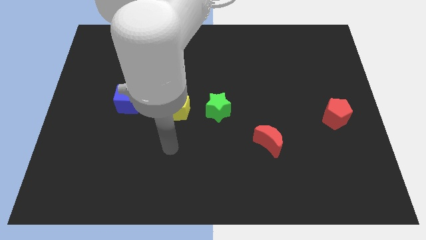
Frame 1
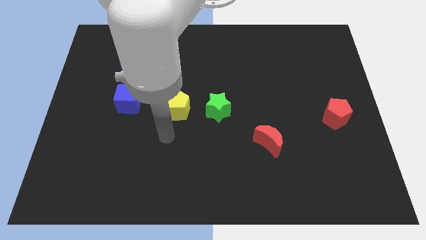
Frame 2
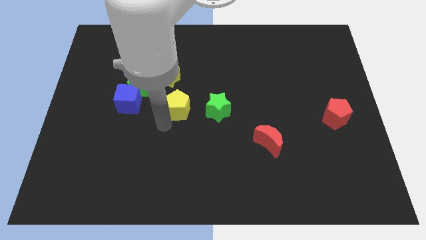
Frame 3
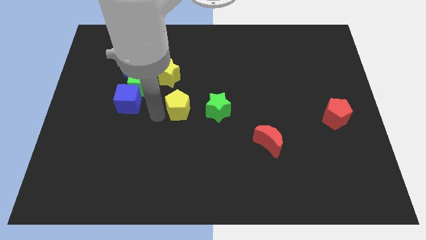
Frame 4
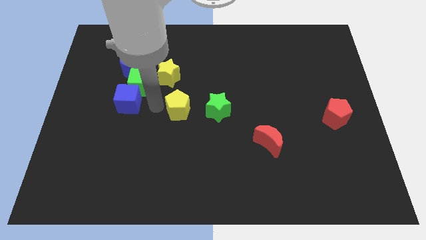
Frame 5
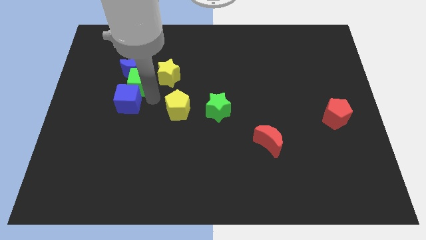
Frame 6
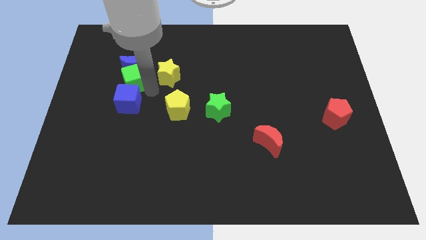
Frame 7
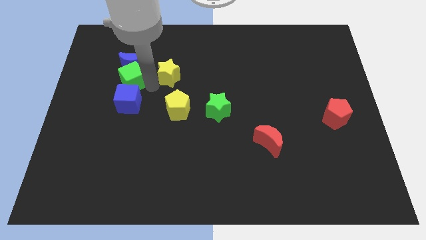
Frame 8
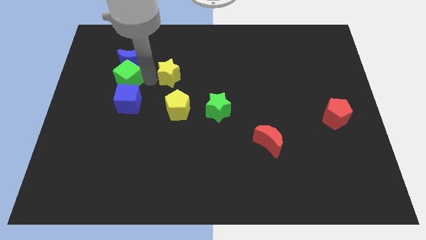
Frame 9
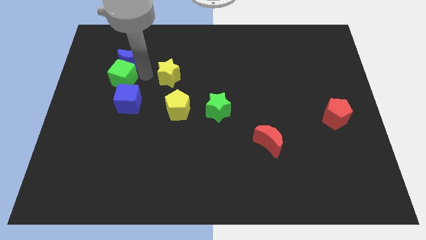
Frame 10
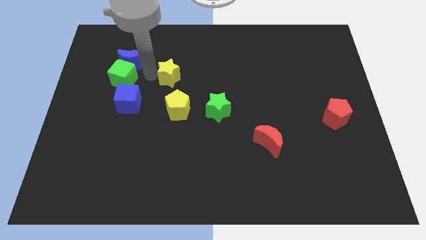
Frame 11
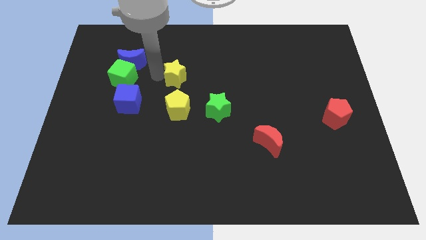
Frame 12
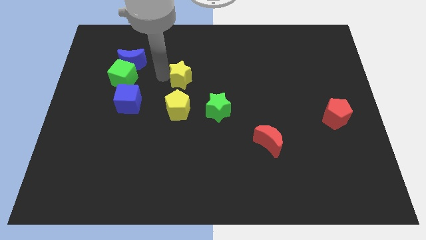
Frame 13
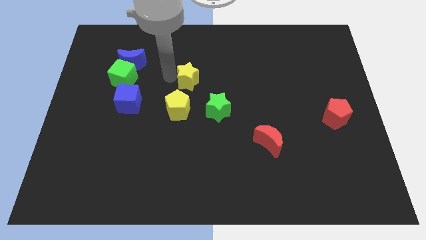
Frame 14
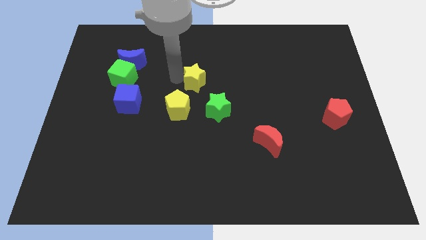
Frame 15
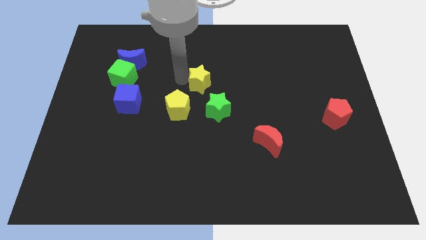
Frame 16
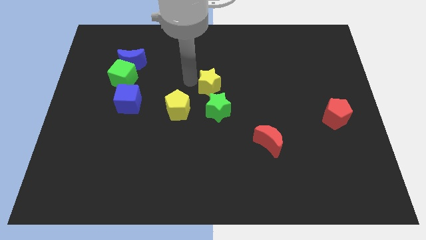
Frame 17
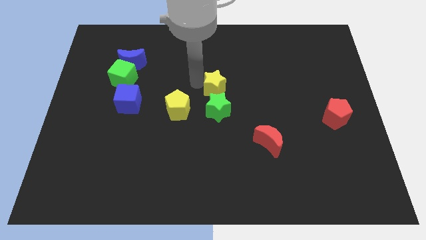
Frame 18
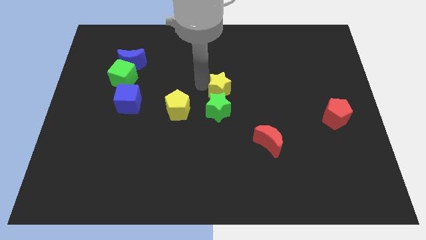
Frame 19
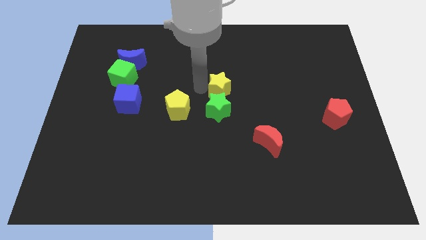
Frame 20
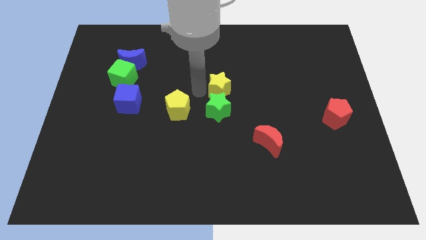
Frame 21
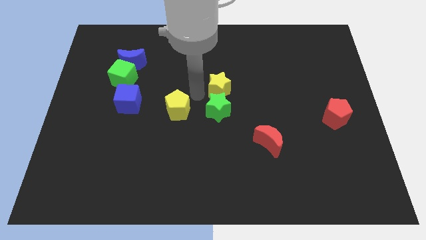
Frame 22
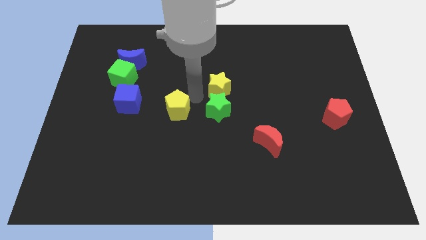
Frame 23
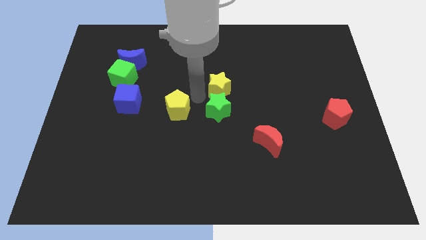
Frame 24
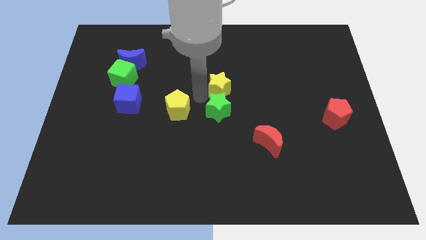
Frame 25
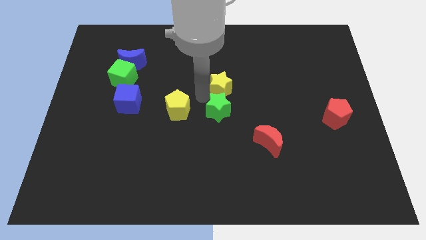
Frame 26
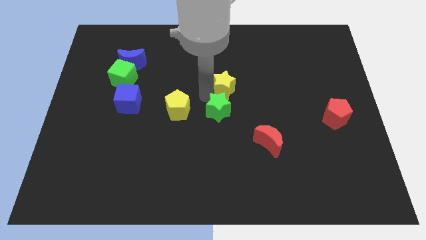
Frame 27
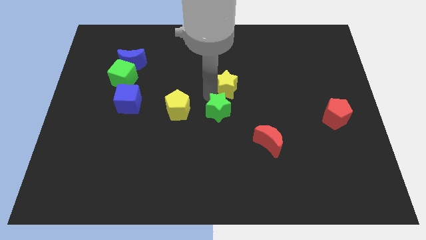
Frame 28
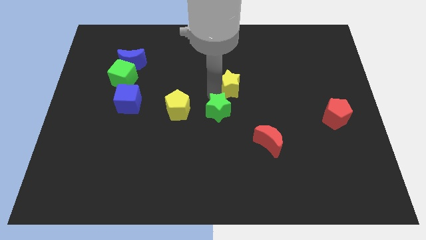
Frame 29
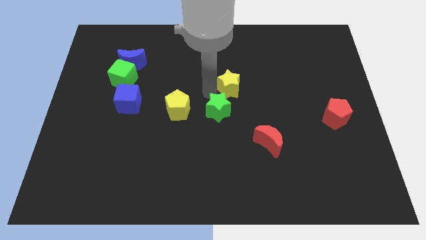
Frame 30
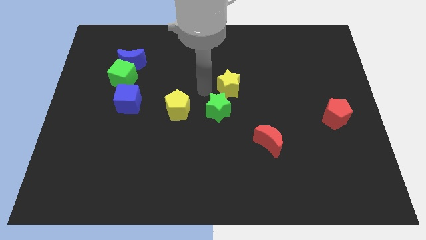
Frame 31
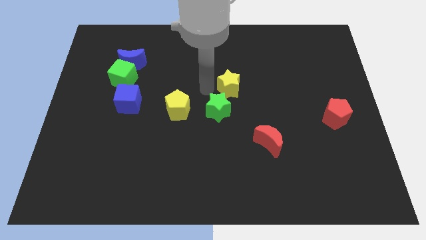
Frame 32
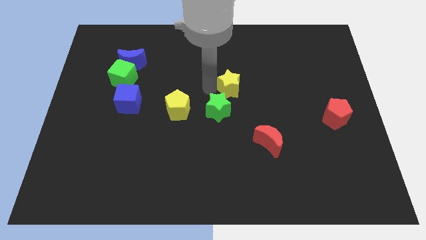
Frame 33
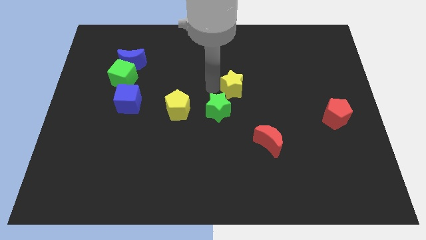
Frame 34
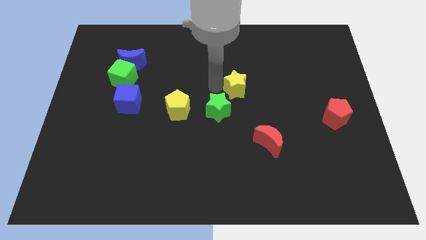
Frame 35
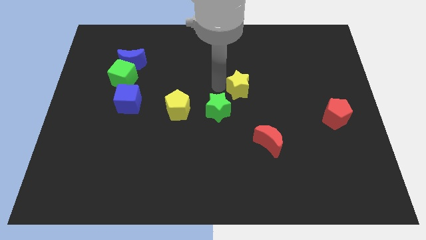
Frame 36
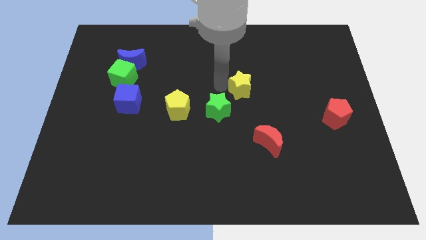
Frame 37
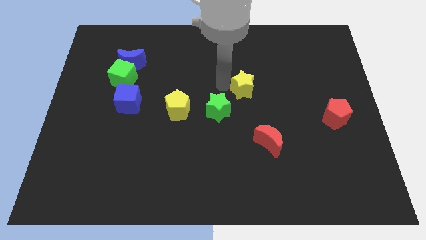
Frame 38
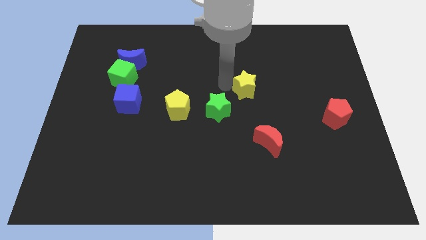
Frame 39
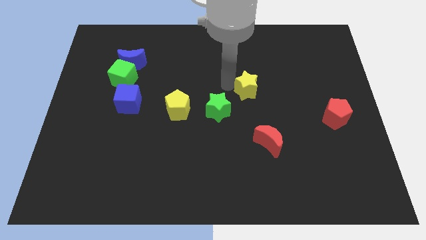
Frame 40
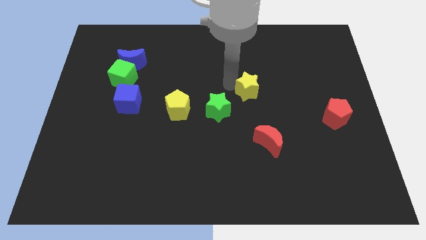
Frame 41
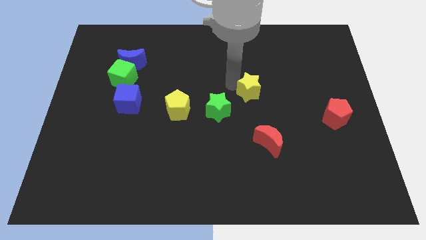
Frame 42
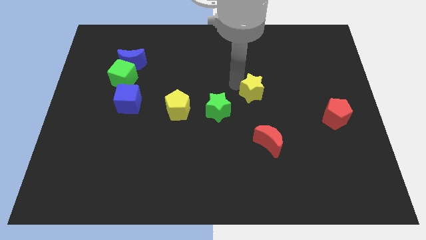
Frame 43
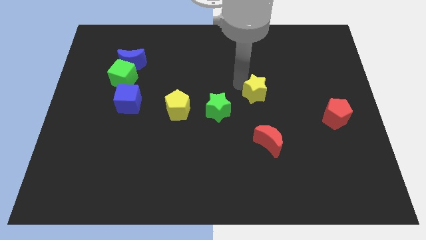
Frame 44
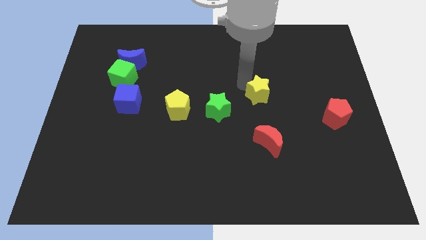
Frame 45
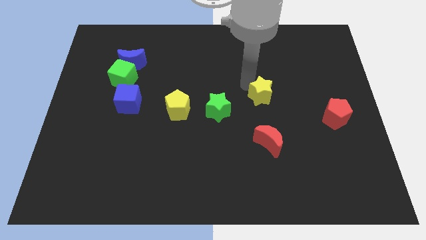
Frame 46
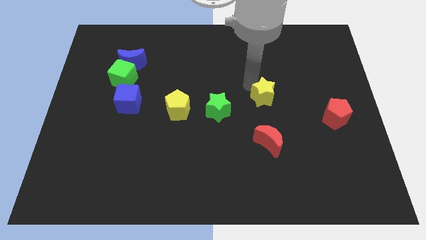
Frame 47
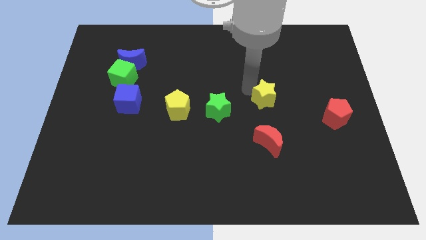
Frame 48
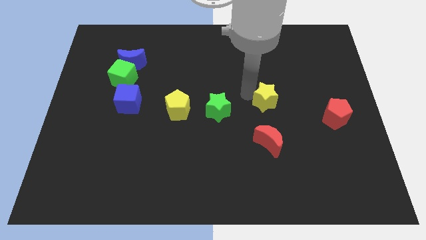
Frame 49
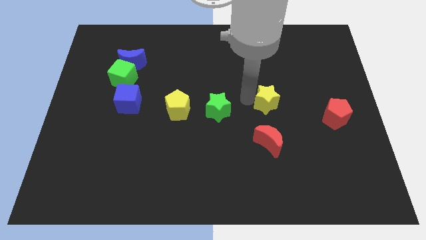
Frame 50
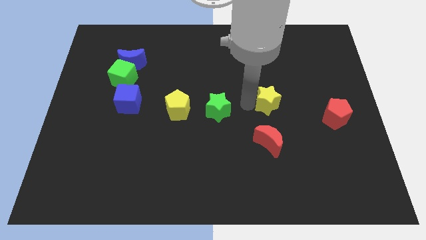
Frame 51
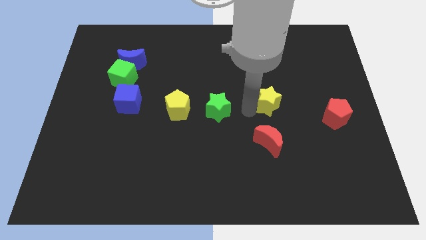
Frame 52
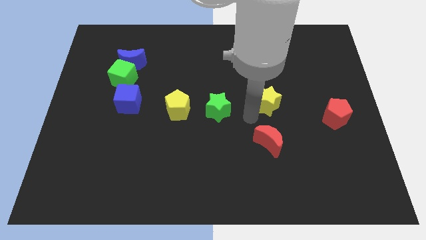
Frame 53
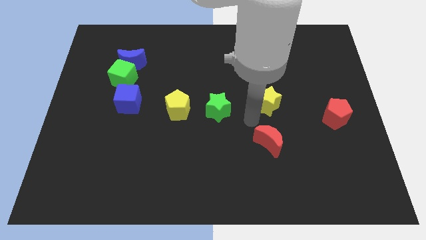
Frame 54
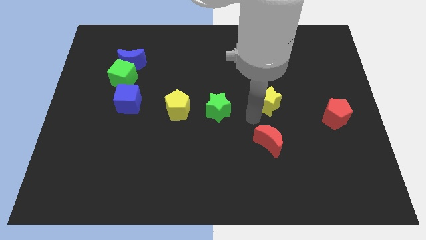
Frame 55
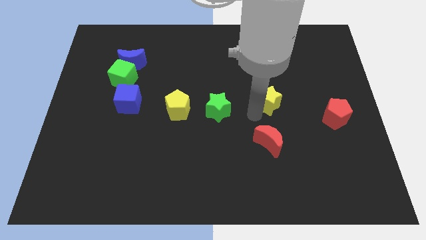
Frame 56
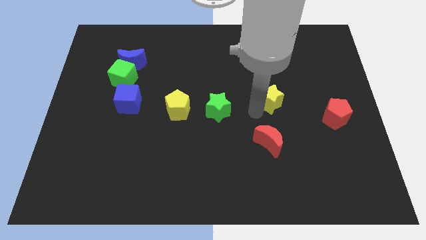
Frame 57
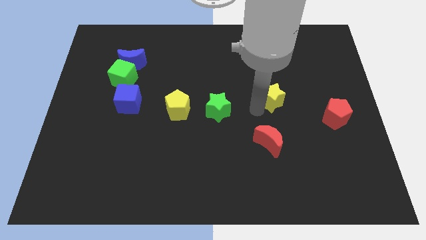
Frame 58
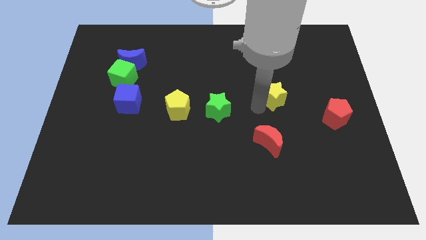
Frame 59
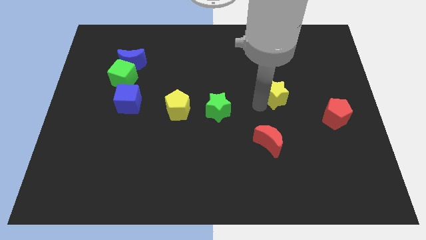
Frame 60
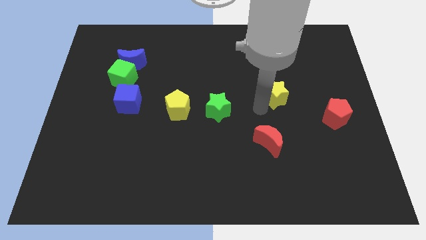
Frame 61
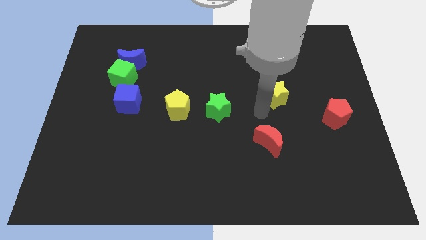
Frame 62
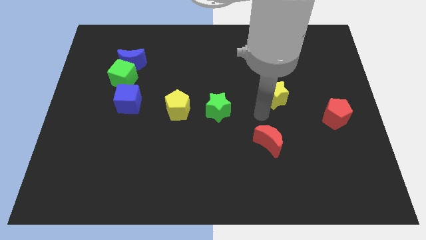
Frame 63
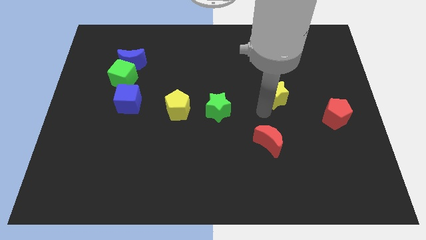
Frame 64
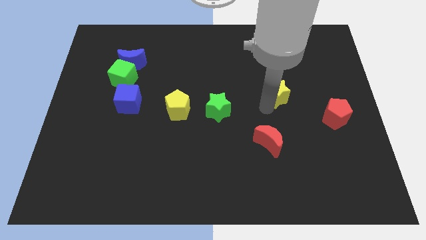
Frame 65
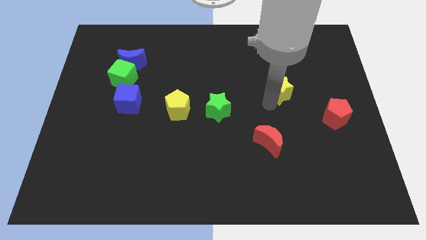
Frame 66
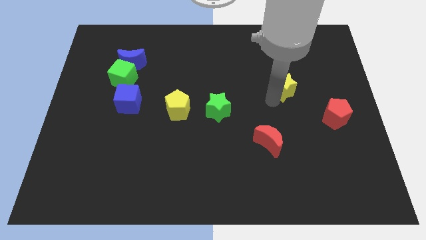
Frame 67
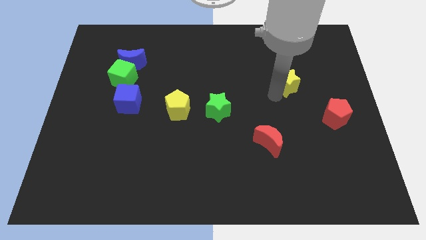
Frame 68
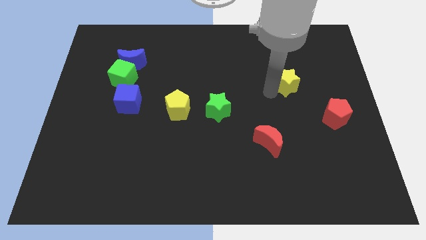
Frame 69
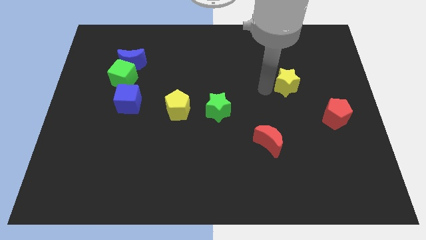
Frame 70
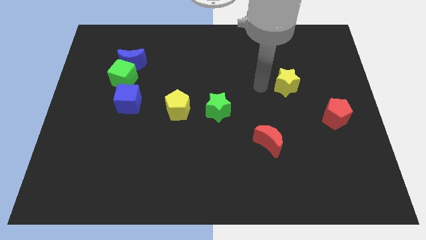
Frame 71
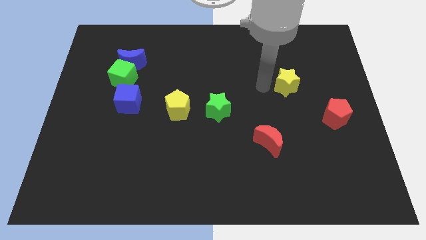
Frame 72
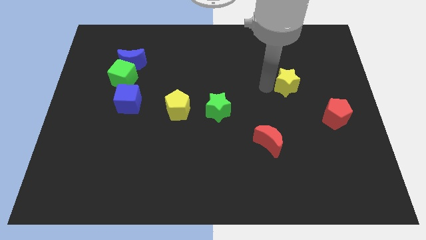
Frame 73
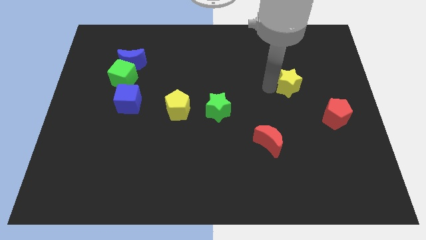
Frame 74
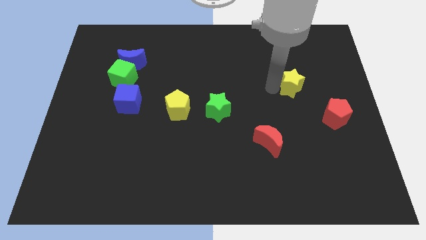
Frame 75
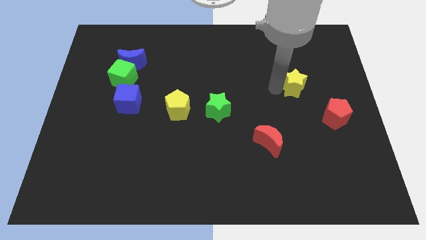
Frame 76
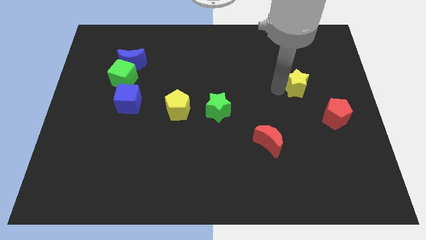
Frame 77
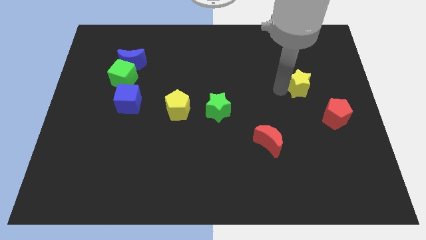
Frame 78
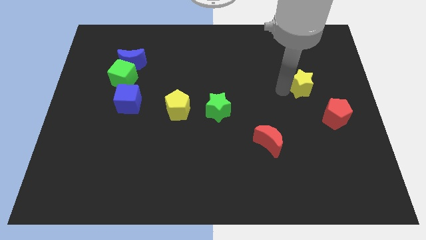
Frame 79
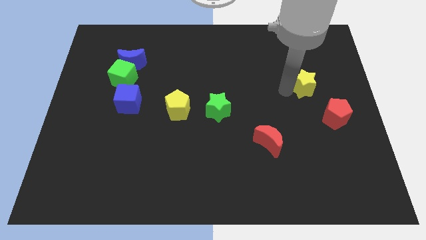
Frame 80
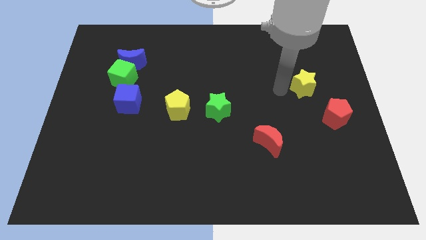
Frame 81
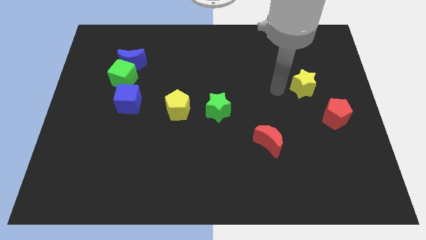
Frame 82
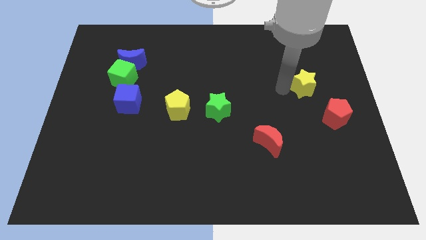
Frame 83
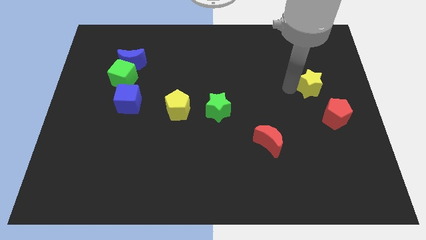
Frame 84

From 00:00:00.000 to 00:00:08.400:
put the yellow star to the top of the red pentagon
